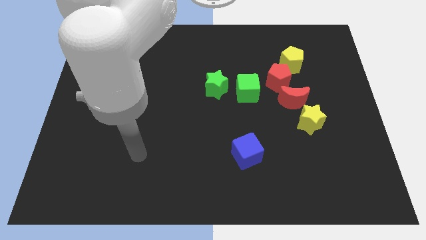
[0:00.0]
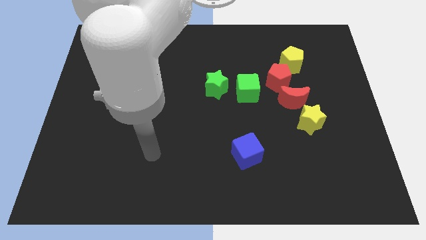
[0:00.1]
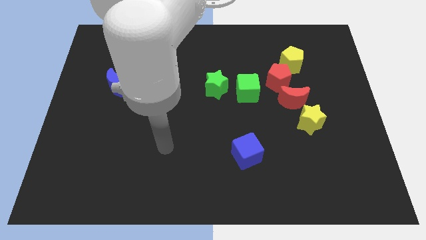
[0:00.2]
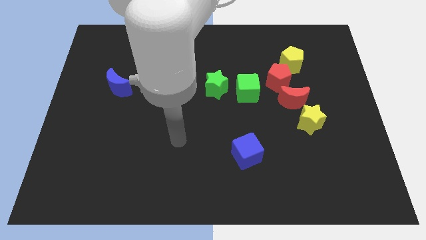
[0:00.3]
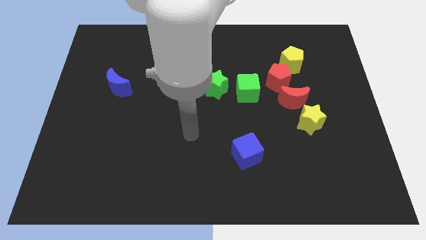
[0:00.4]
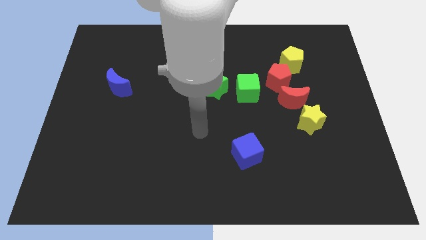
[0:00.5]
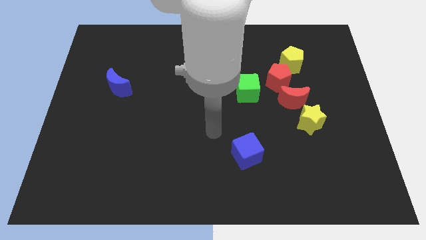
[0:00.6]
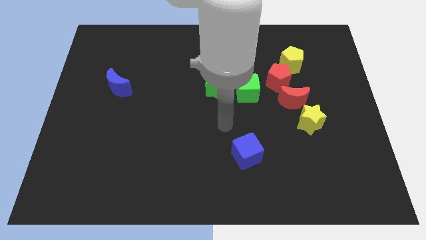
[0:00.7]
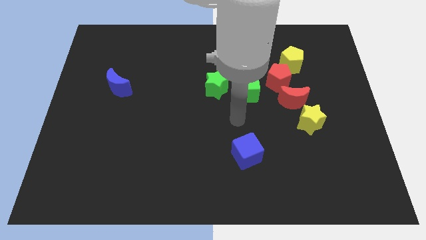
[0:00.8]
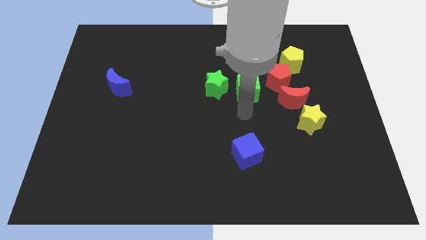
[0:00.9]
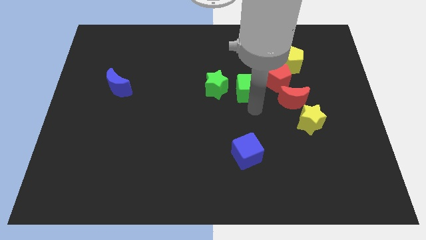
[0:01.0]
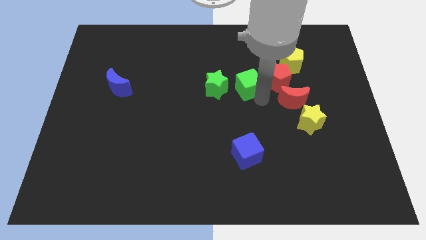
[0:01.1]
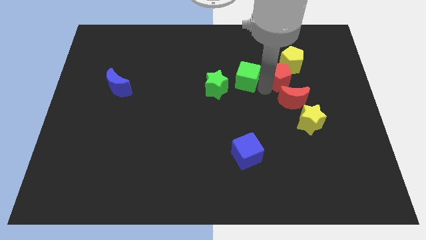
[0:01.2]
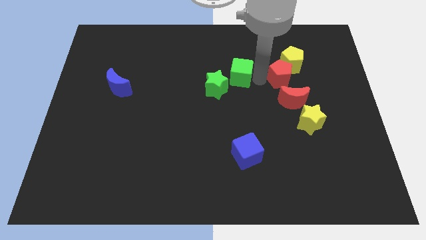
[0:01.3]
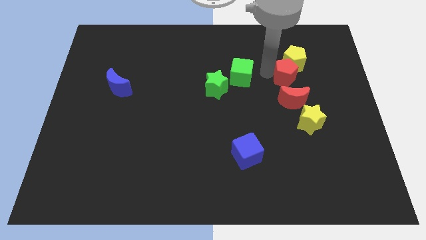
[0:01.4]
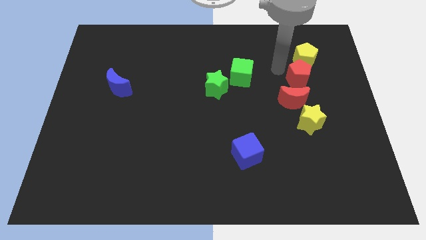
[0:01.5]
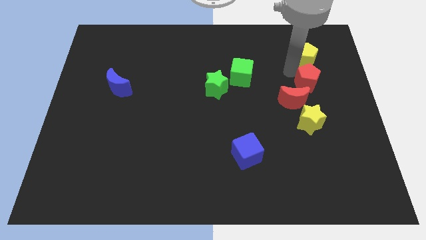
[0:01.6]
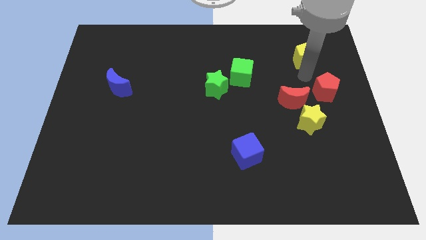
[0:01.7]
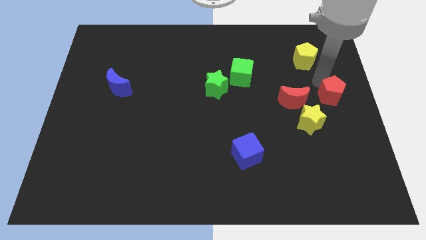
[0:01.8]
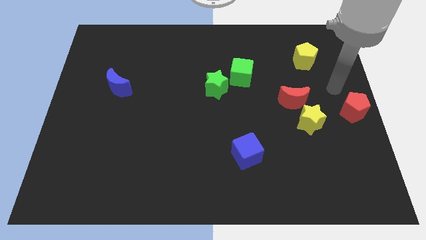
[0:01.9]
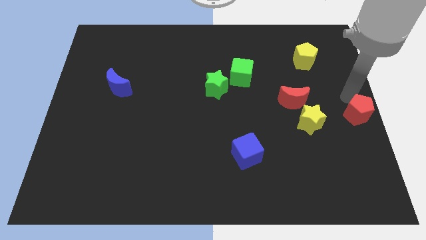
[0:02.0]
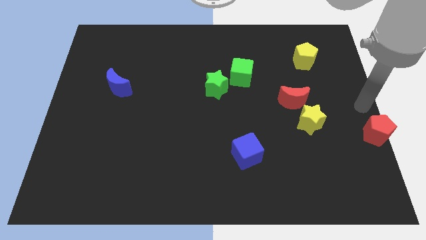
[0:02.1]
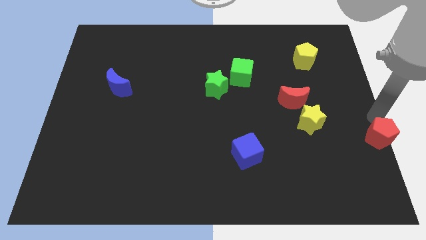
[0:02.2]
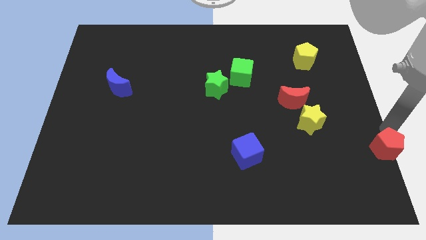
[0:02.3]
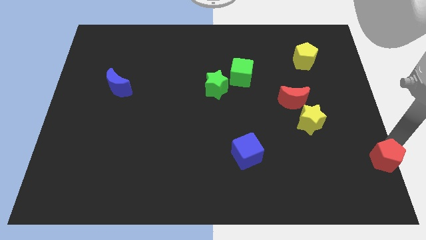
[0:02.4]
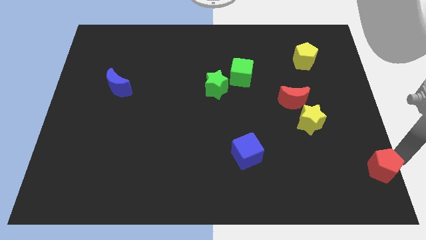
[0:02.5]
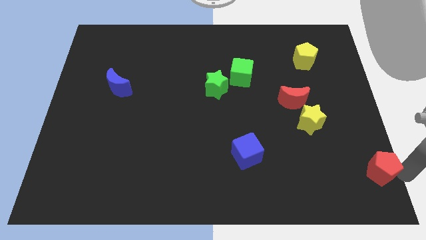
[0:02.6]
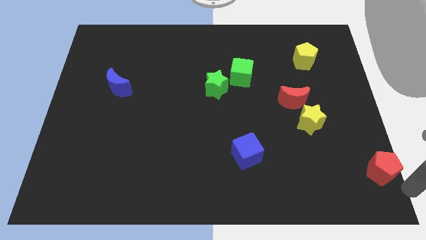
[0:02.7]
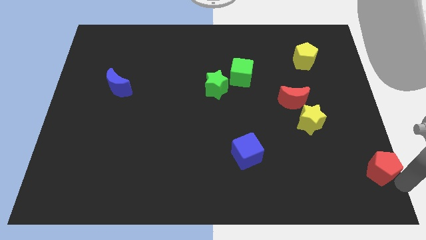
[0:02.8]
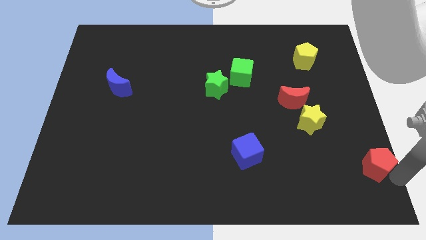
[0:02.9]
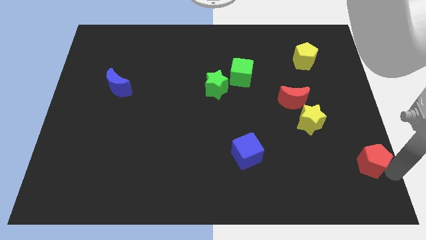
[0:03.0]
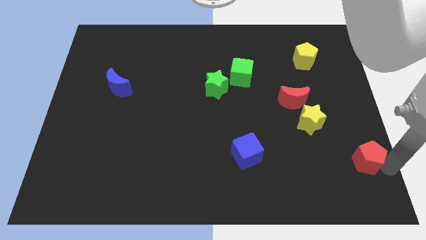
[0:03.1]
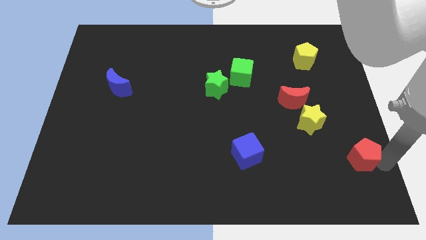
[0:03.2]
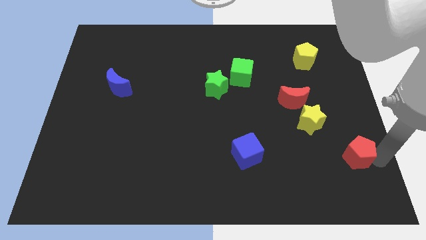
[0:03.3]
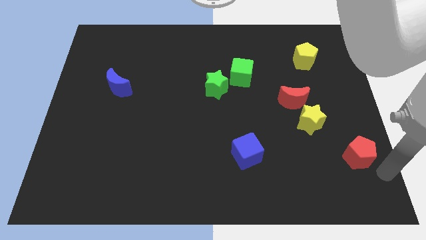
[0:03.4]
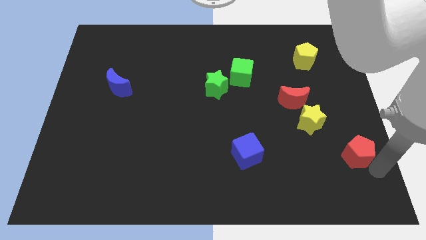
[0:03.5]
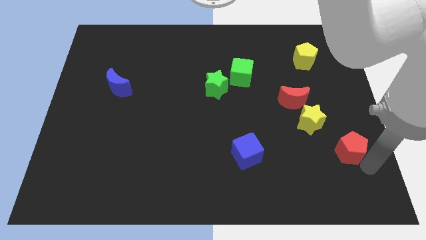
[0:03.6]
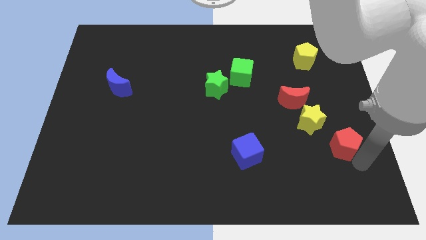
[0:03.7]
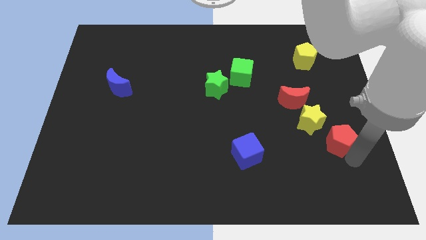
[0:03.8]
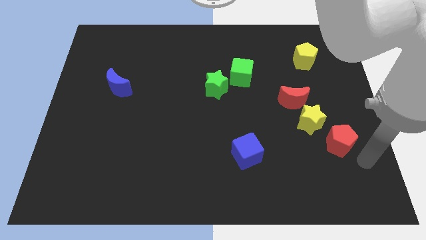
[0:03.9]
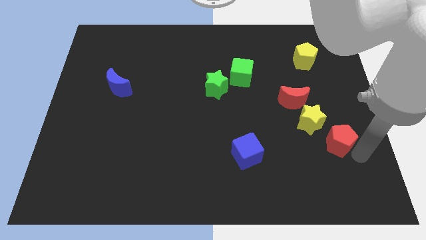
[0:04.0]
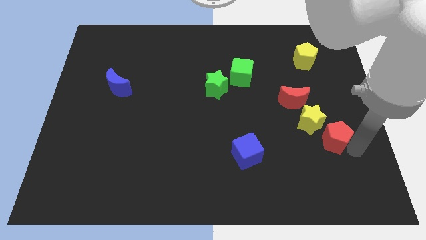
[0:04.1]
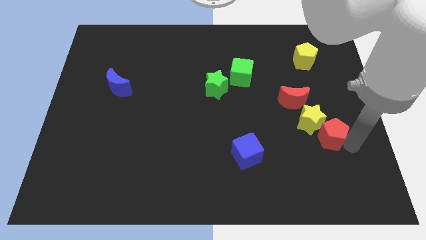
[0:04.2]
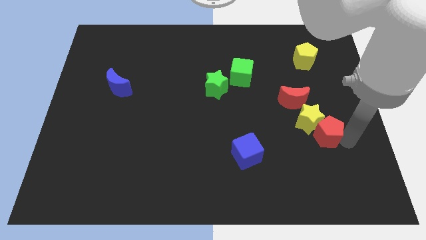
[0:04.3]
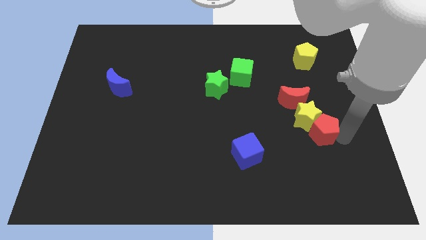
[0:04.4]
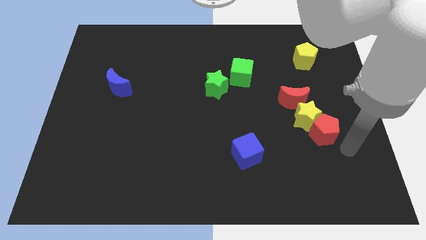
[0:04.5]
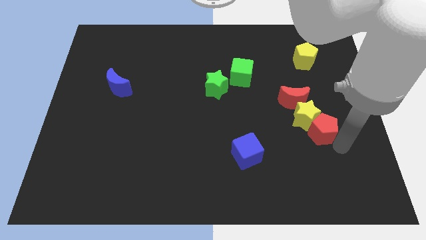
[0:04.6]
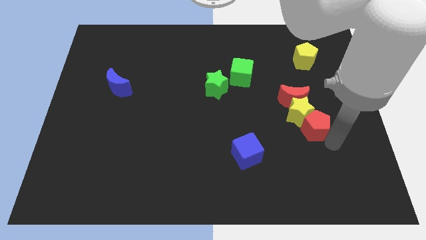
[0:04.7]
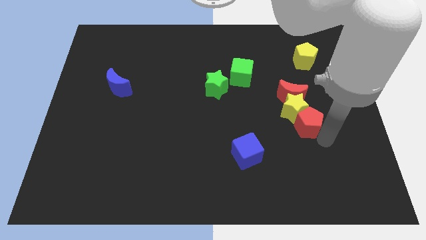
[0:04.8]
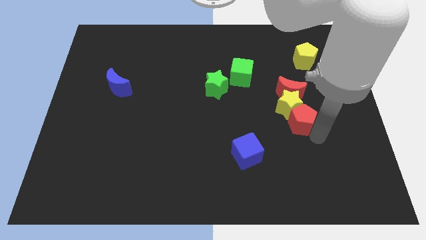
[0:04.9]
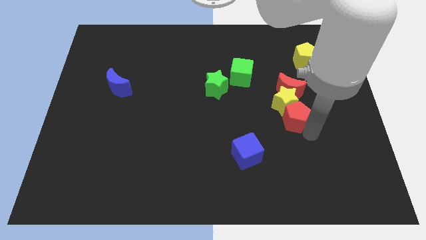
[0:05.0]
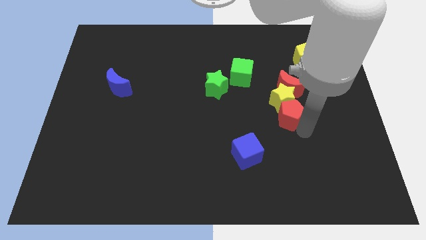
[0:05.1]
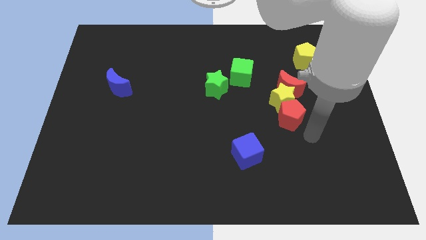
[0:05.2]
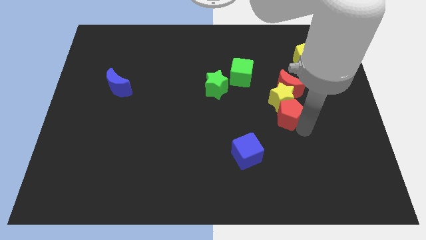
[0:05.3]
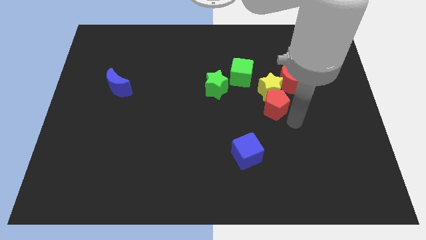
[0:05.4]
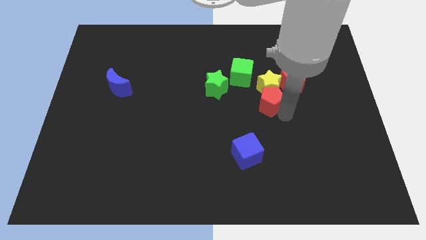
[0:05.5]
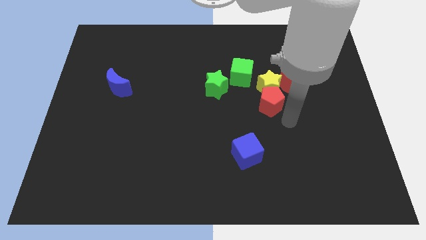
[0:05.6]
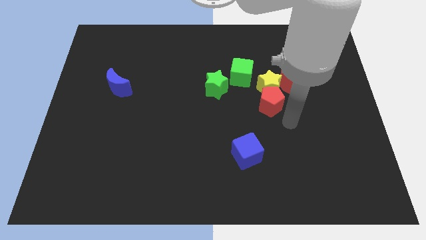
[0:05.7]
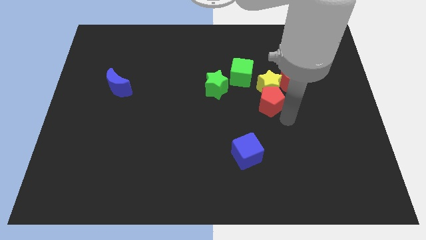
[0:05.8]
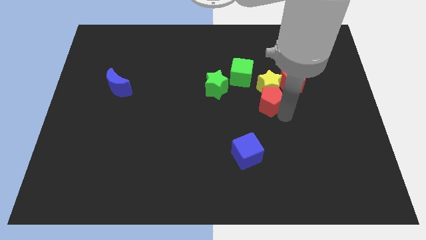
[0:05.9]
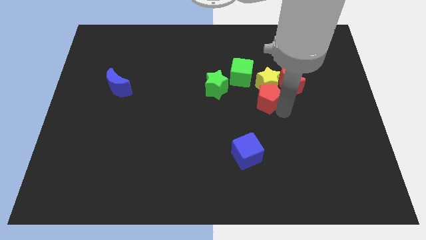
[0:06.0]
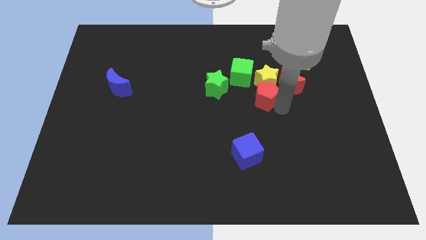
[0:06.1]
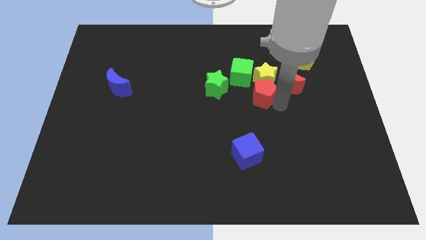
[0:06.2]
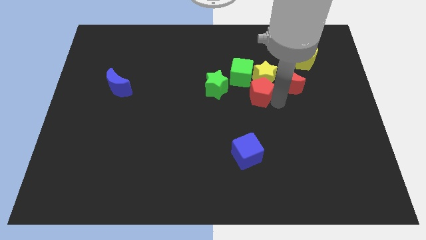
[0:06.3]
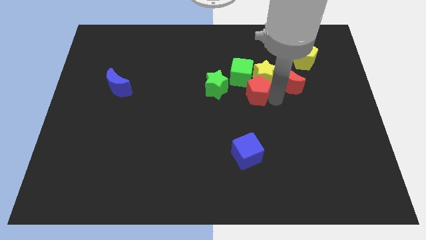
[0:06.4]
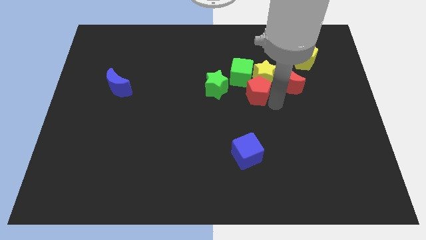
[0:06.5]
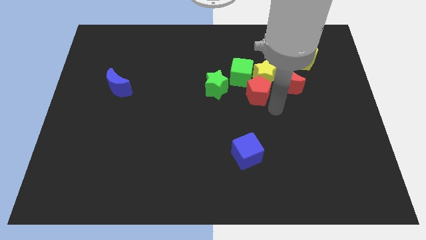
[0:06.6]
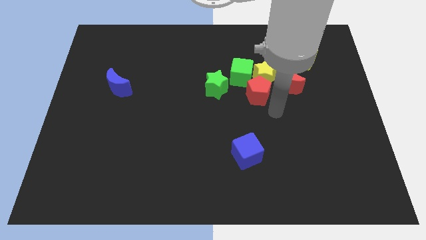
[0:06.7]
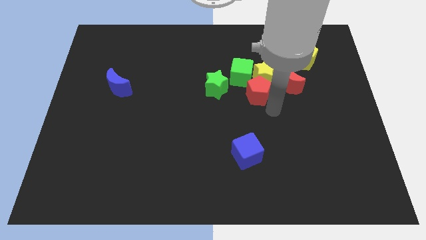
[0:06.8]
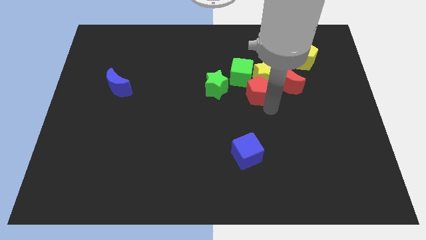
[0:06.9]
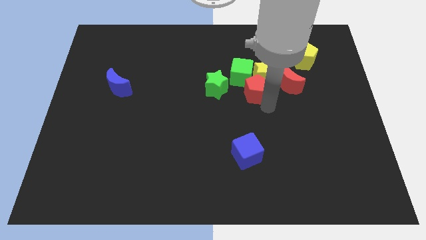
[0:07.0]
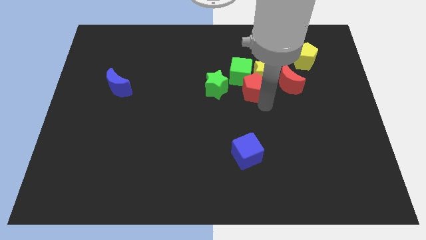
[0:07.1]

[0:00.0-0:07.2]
push the red pentagon close to the green cube
